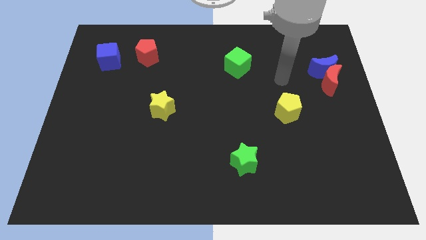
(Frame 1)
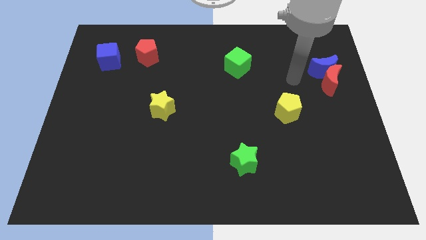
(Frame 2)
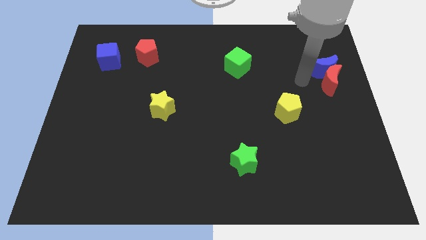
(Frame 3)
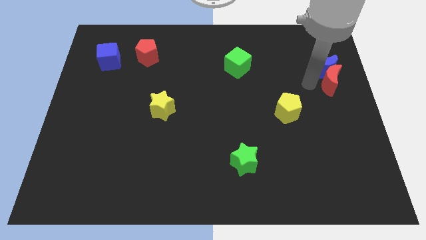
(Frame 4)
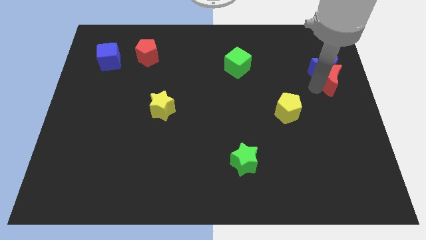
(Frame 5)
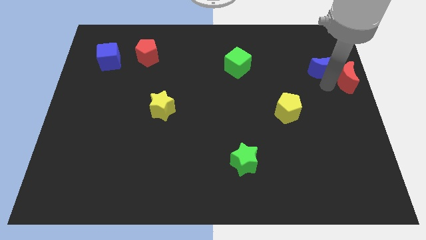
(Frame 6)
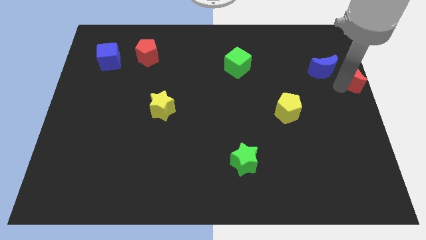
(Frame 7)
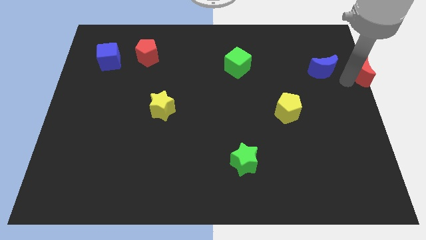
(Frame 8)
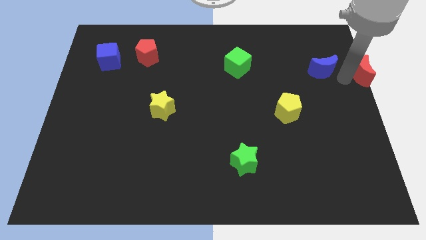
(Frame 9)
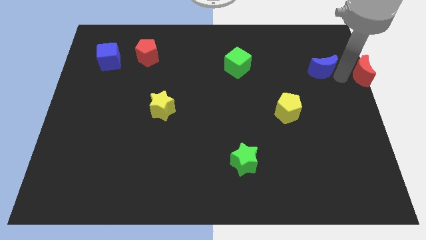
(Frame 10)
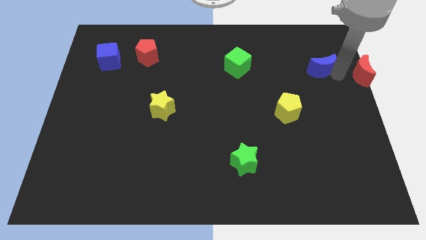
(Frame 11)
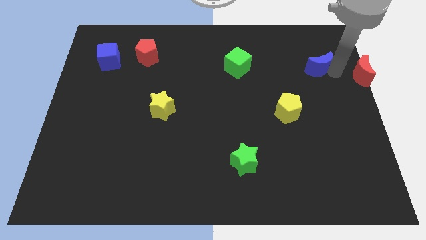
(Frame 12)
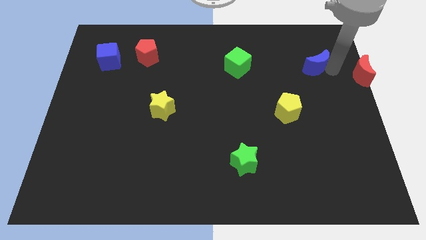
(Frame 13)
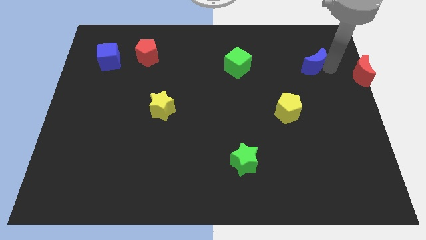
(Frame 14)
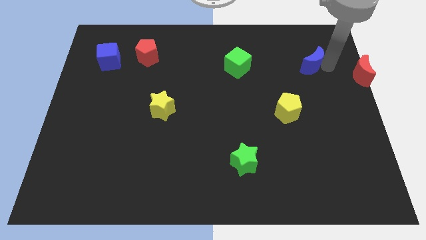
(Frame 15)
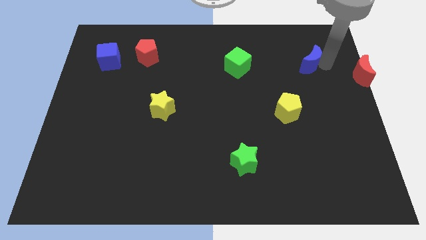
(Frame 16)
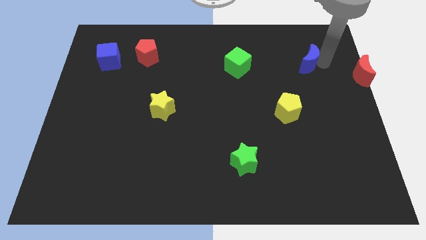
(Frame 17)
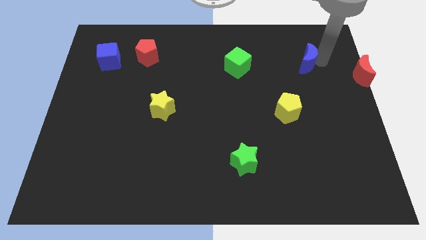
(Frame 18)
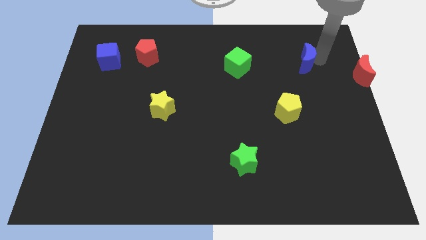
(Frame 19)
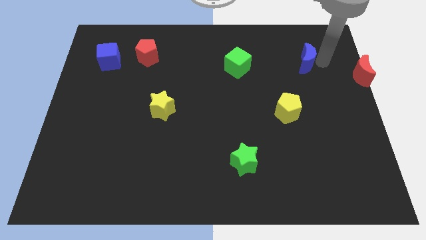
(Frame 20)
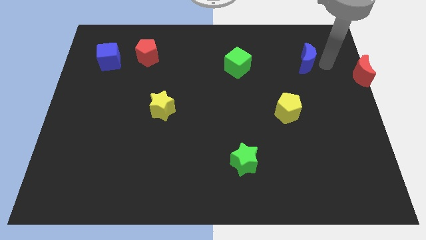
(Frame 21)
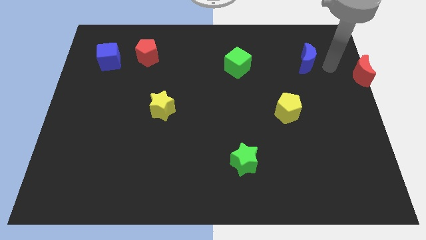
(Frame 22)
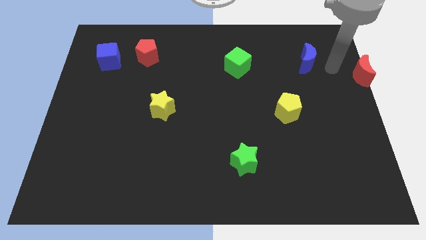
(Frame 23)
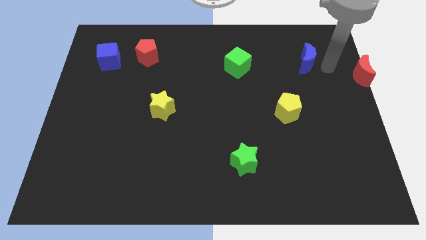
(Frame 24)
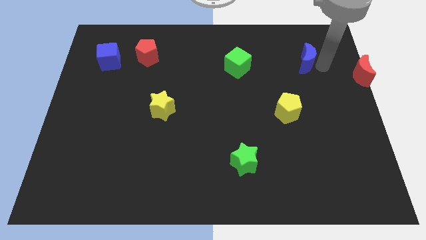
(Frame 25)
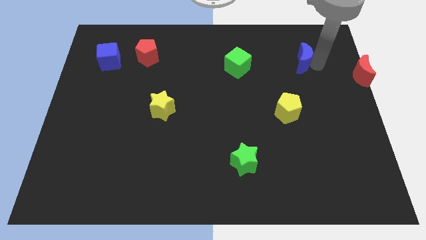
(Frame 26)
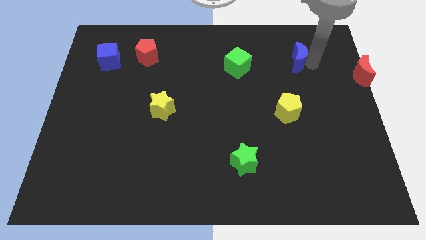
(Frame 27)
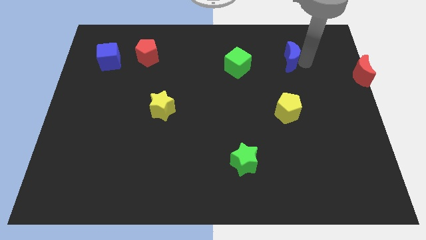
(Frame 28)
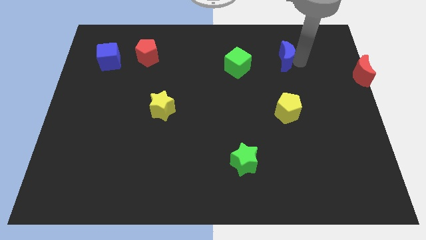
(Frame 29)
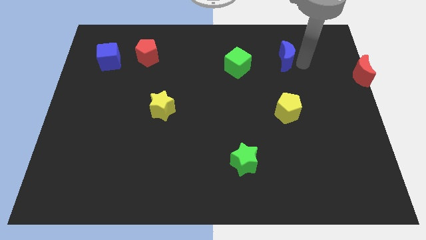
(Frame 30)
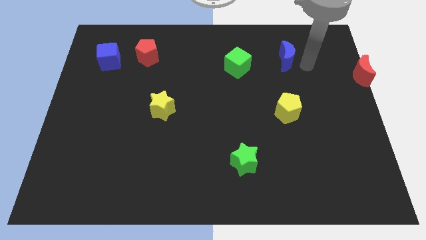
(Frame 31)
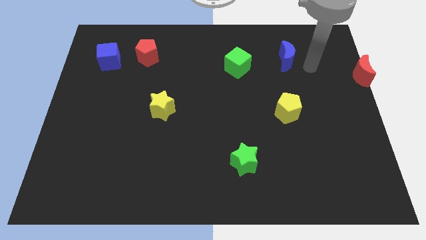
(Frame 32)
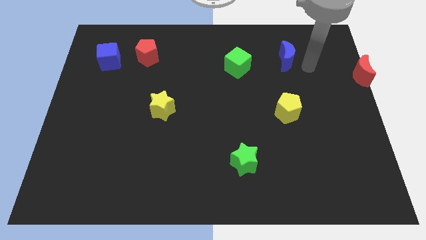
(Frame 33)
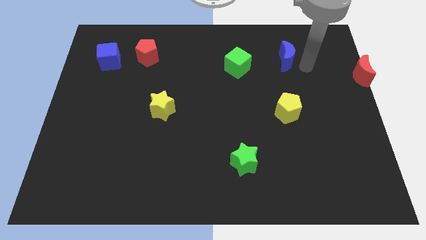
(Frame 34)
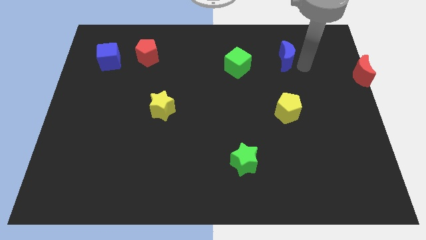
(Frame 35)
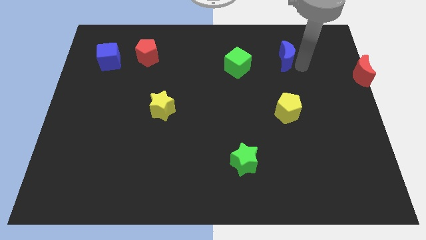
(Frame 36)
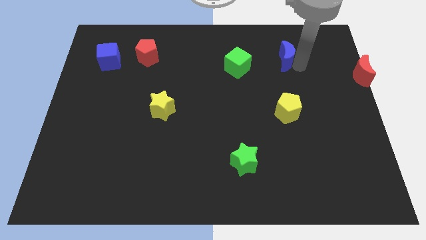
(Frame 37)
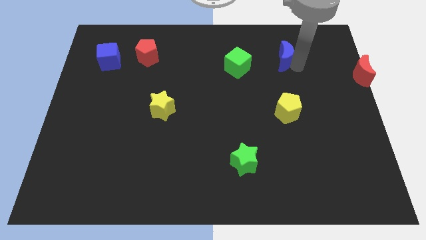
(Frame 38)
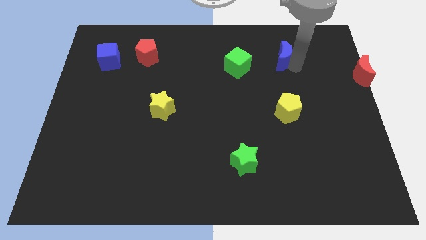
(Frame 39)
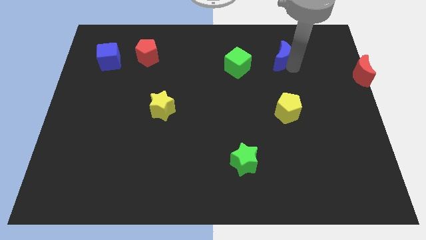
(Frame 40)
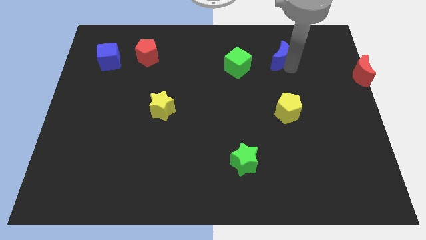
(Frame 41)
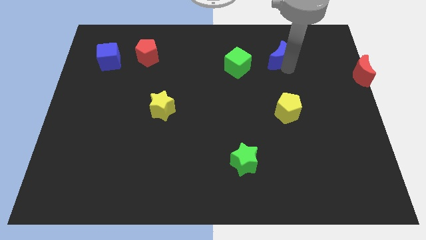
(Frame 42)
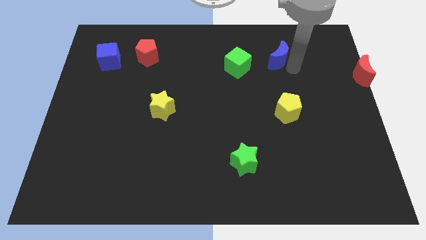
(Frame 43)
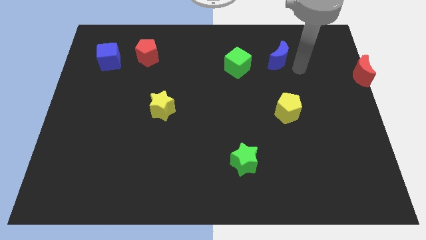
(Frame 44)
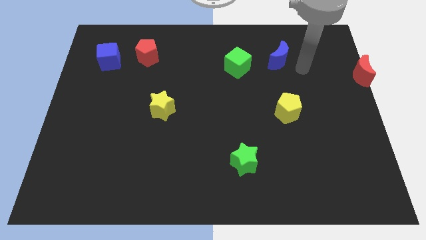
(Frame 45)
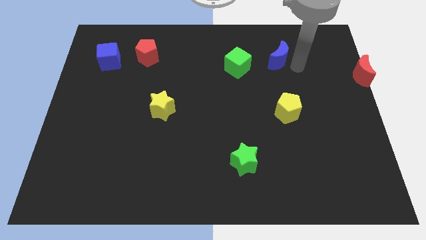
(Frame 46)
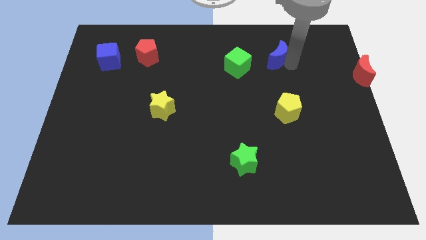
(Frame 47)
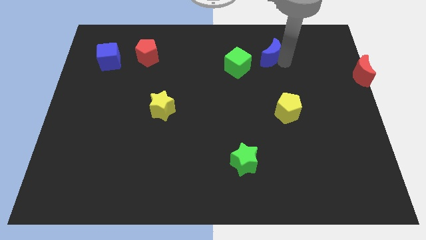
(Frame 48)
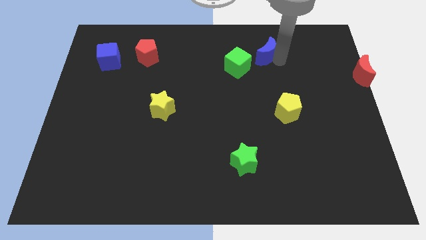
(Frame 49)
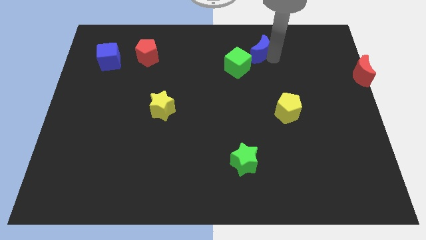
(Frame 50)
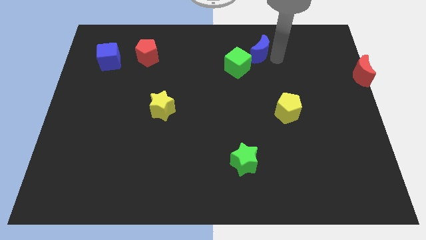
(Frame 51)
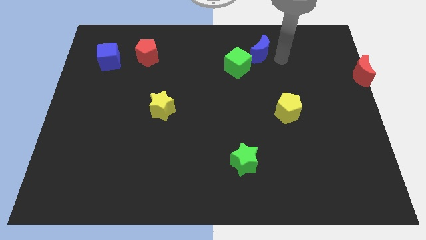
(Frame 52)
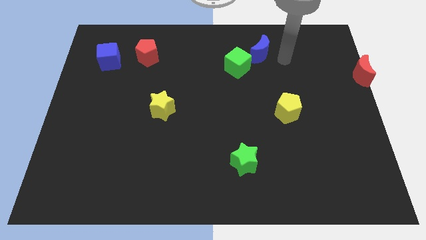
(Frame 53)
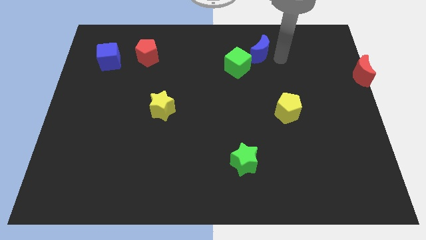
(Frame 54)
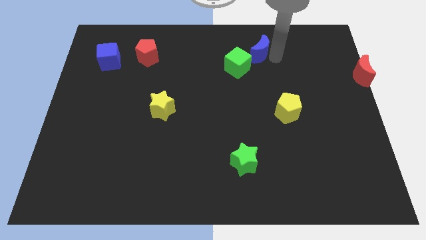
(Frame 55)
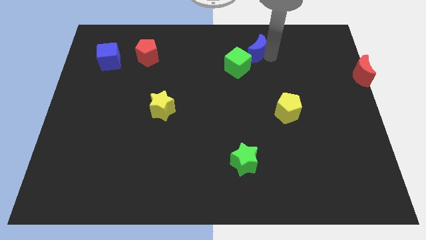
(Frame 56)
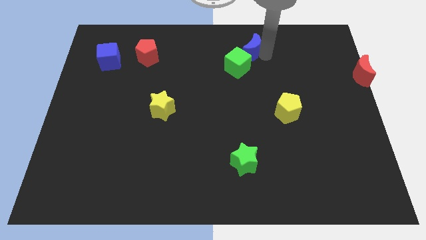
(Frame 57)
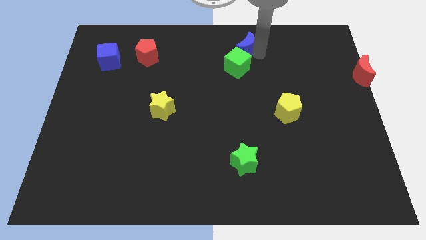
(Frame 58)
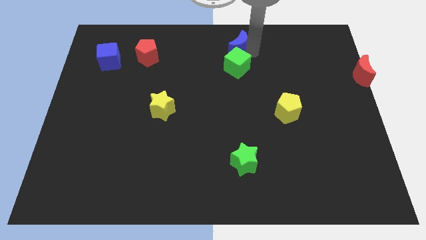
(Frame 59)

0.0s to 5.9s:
slide the blue moon to the towards your base
